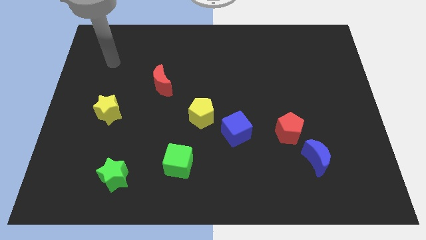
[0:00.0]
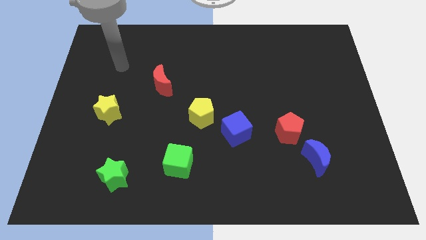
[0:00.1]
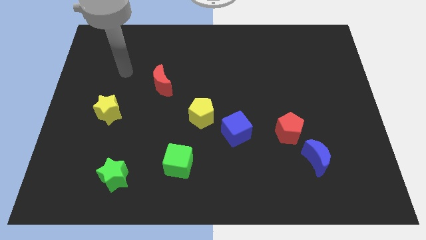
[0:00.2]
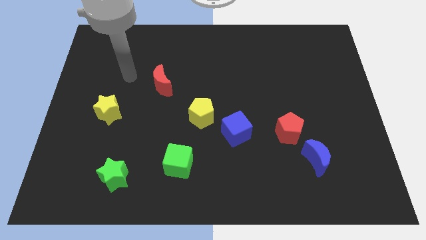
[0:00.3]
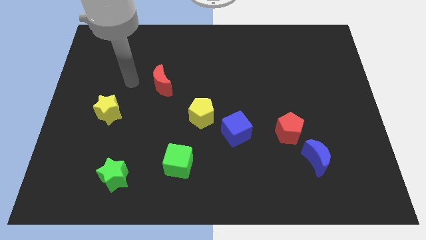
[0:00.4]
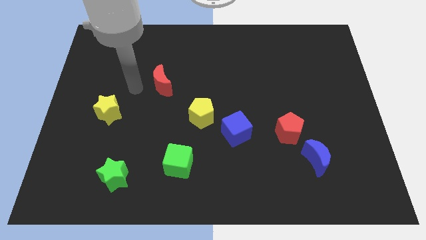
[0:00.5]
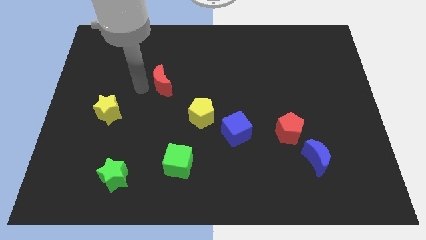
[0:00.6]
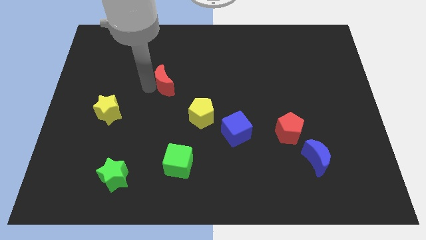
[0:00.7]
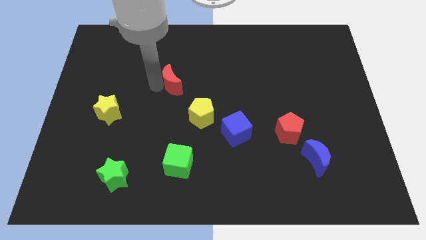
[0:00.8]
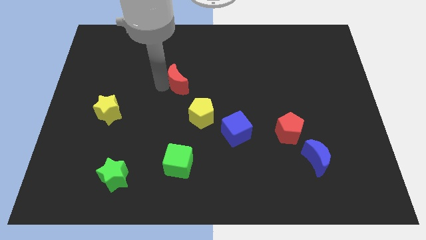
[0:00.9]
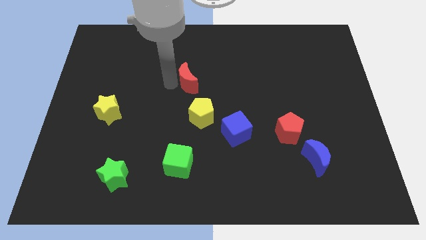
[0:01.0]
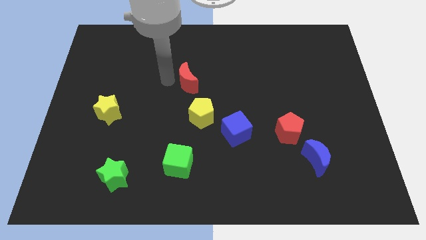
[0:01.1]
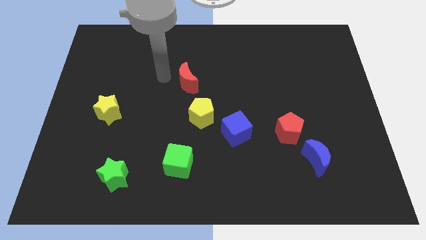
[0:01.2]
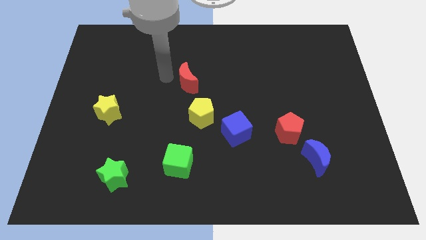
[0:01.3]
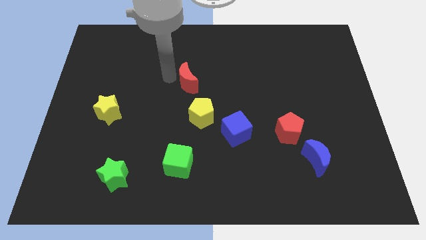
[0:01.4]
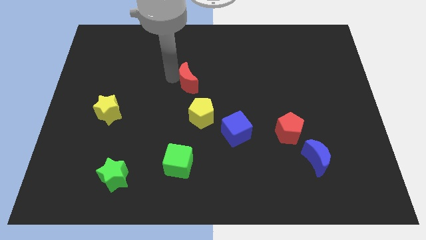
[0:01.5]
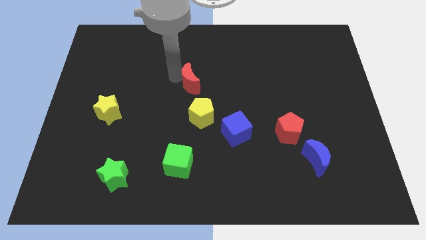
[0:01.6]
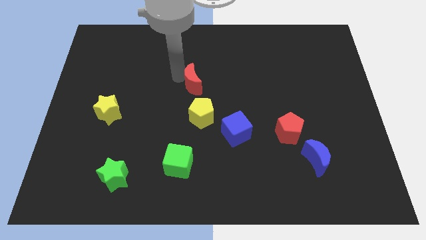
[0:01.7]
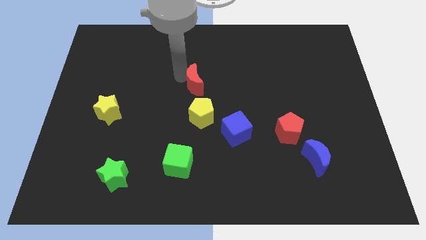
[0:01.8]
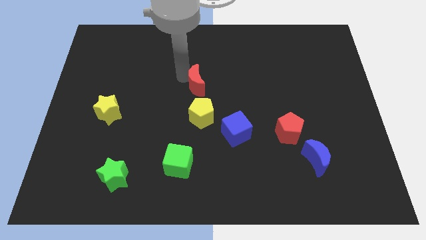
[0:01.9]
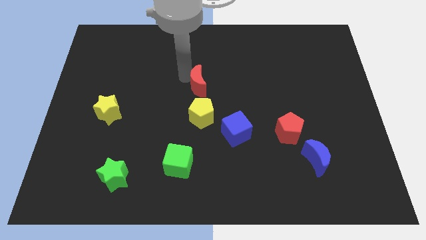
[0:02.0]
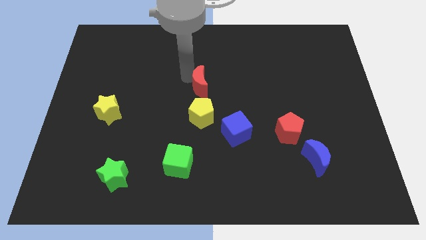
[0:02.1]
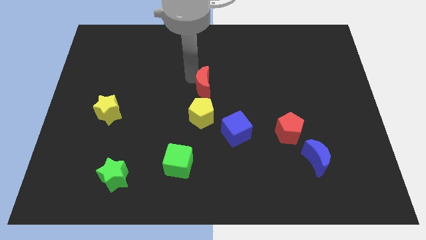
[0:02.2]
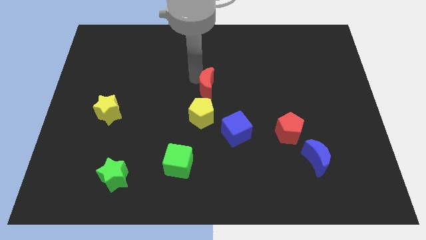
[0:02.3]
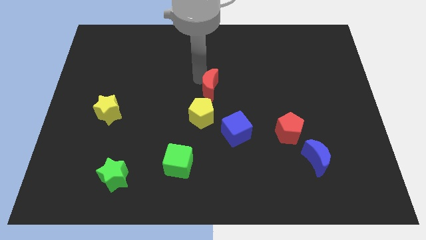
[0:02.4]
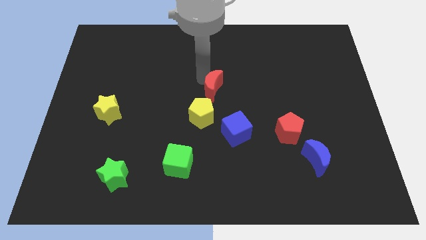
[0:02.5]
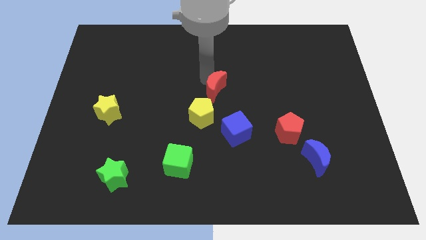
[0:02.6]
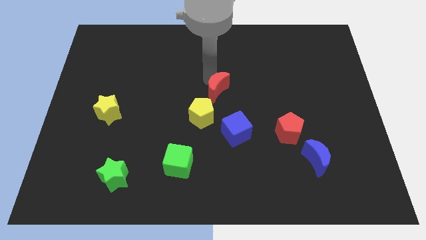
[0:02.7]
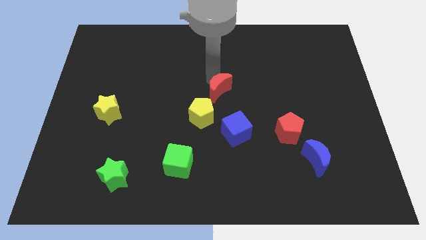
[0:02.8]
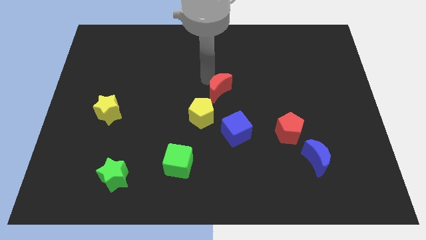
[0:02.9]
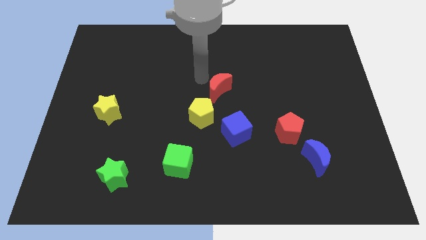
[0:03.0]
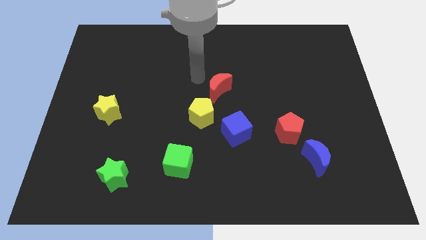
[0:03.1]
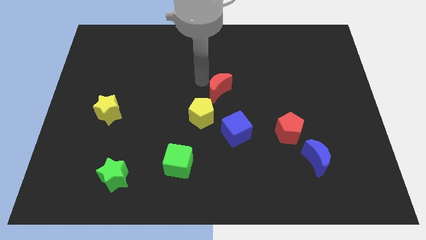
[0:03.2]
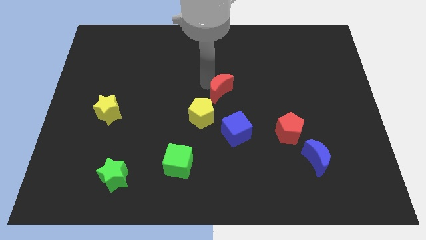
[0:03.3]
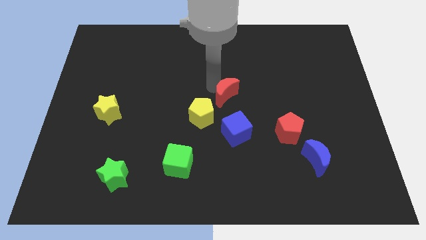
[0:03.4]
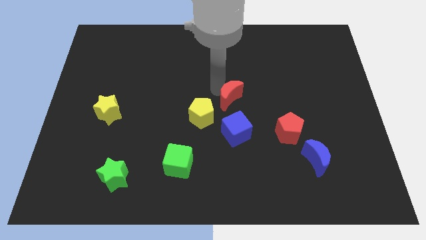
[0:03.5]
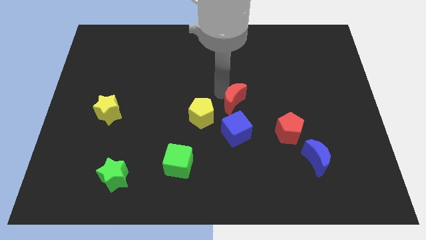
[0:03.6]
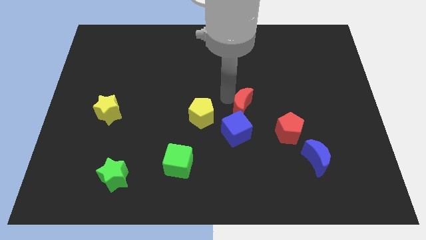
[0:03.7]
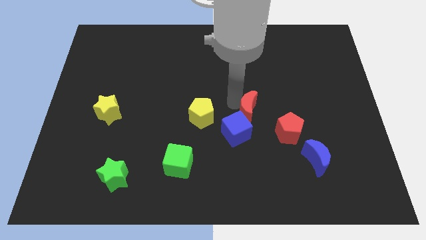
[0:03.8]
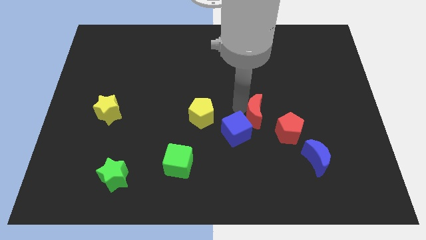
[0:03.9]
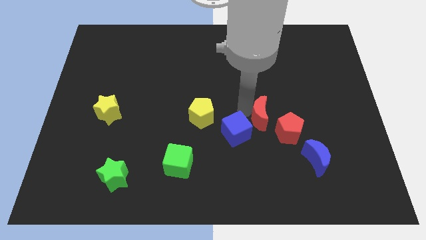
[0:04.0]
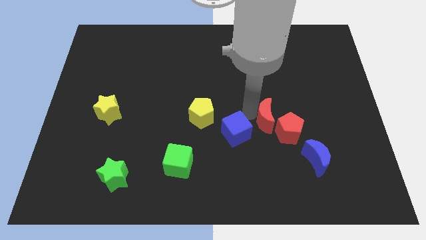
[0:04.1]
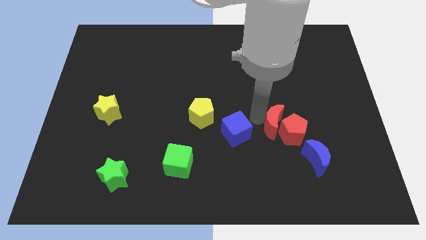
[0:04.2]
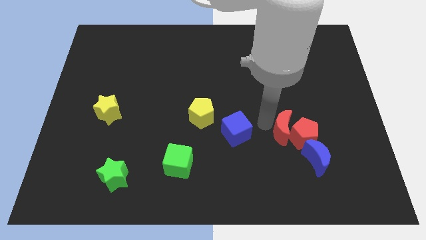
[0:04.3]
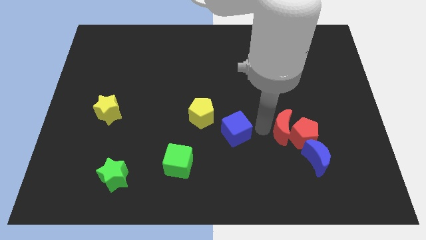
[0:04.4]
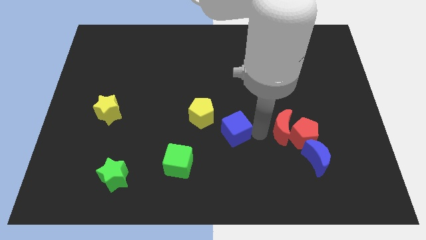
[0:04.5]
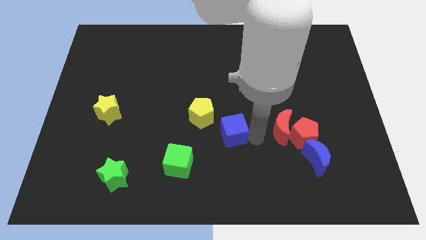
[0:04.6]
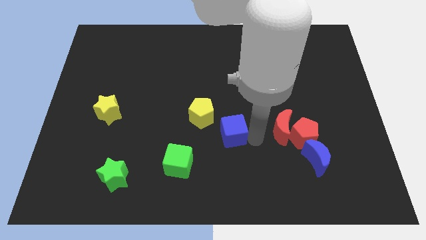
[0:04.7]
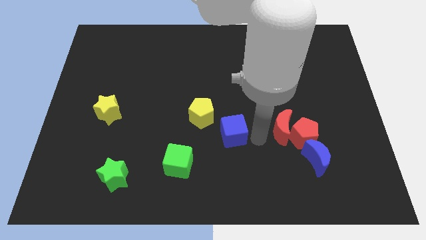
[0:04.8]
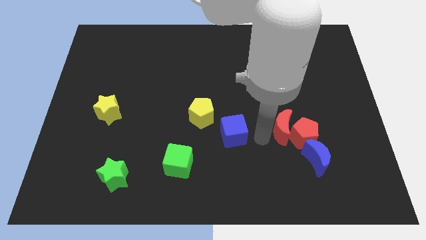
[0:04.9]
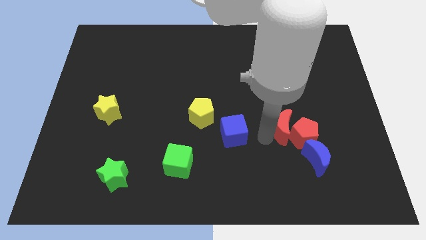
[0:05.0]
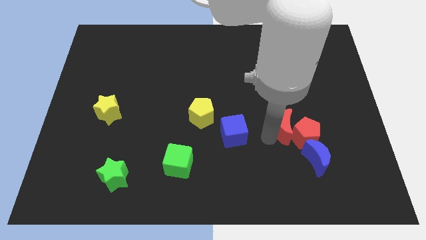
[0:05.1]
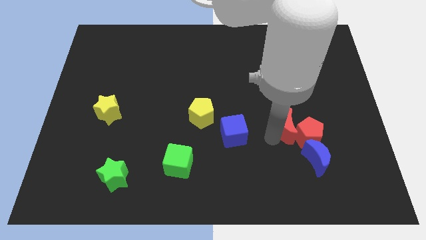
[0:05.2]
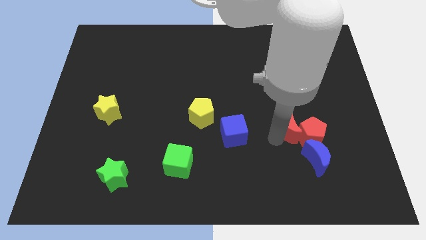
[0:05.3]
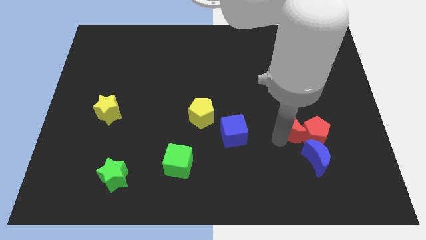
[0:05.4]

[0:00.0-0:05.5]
put the red moon above the blue moon

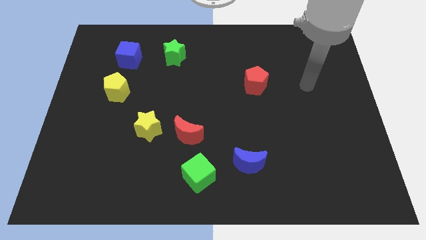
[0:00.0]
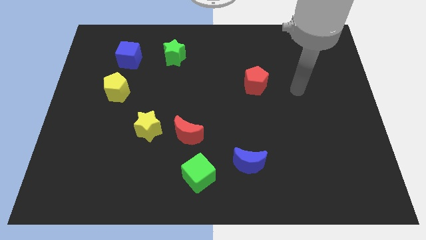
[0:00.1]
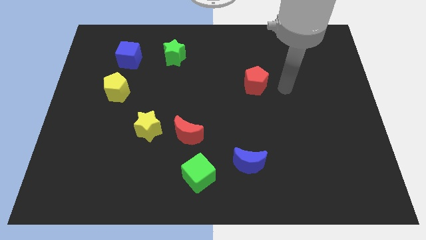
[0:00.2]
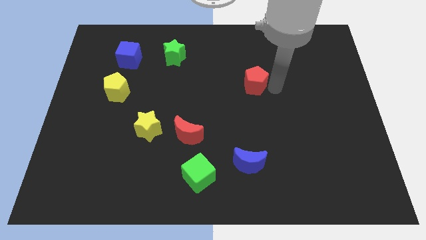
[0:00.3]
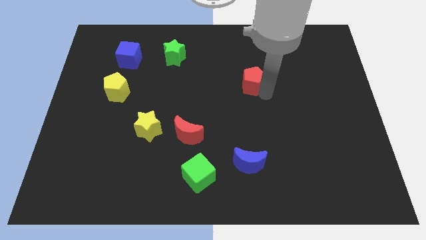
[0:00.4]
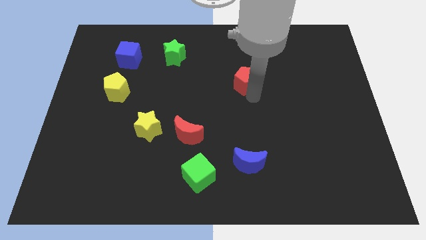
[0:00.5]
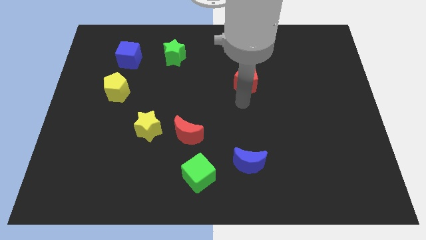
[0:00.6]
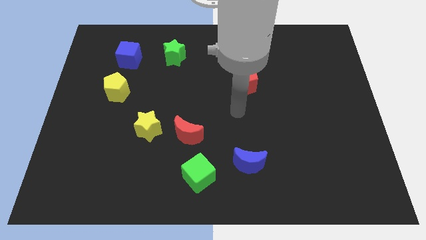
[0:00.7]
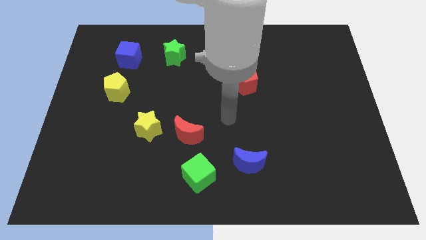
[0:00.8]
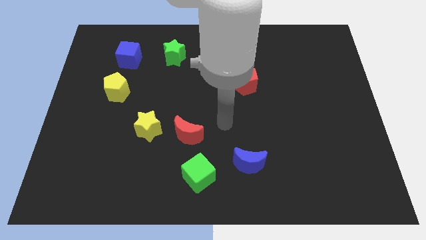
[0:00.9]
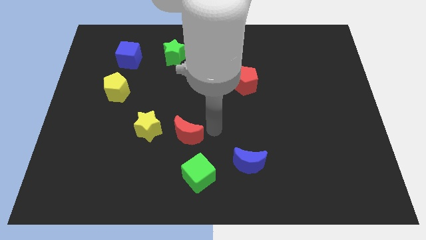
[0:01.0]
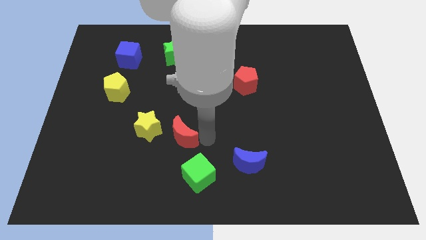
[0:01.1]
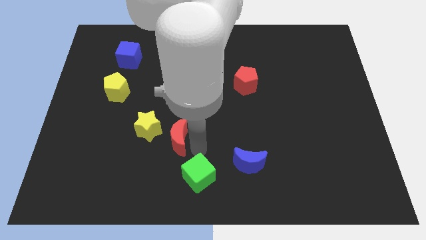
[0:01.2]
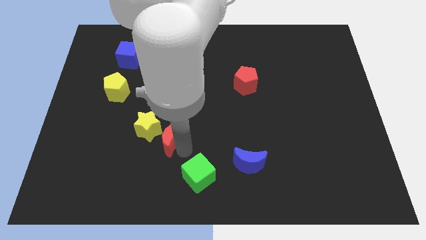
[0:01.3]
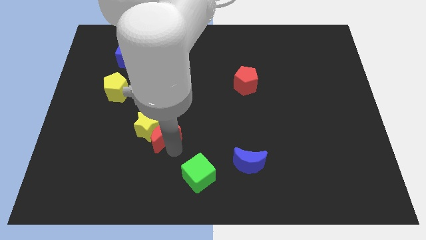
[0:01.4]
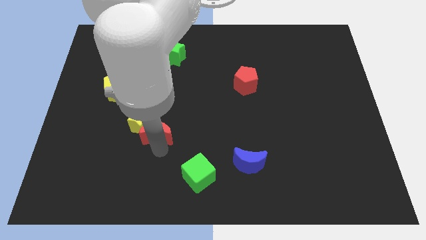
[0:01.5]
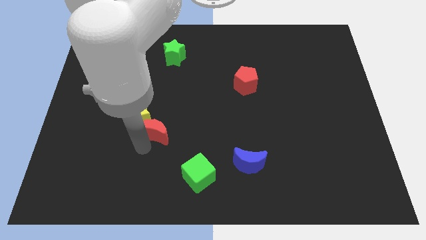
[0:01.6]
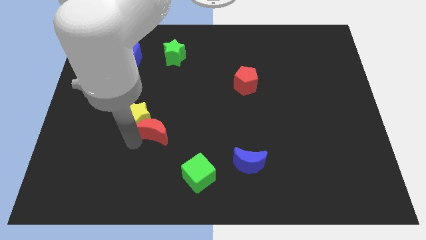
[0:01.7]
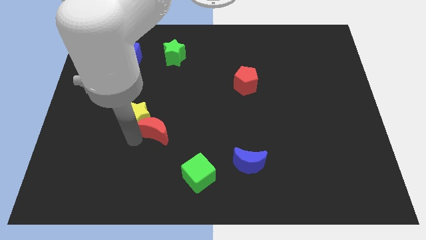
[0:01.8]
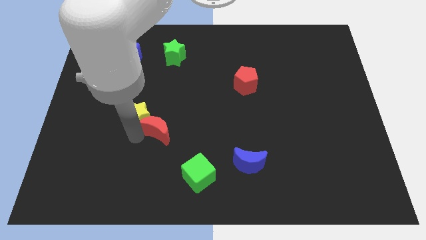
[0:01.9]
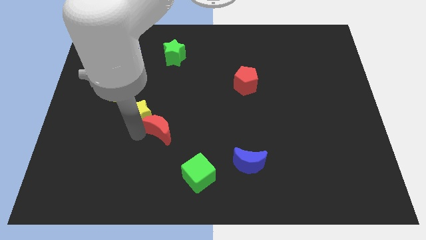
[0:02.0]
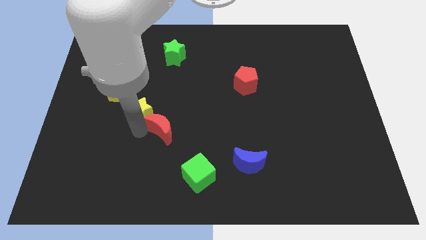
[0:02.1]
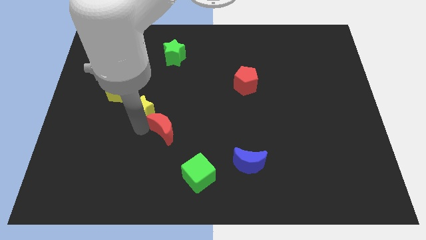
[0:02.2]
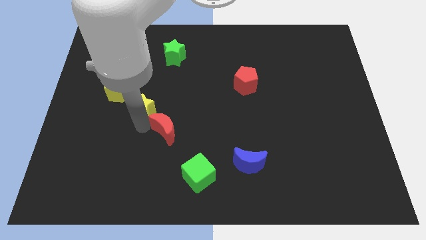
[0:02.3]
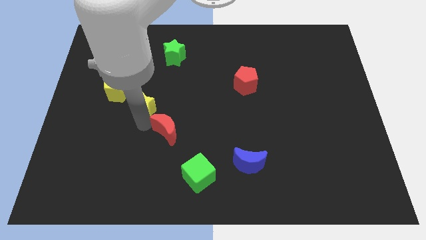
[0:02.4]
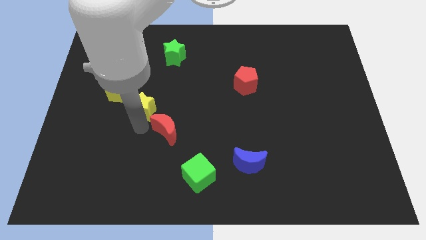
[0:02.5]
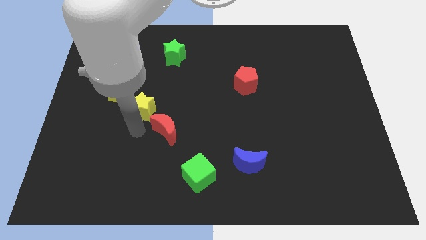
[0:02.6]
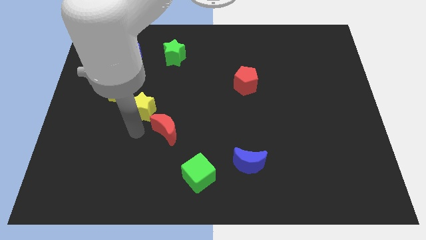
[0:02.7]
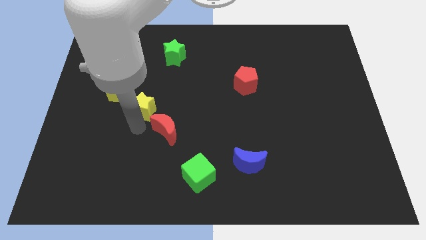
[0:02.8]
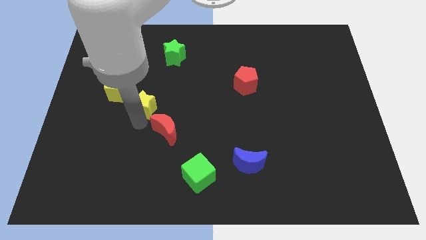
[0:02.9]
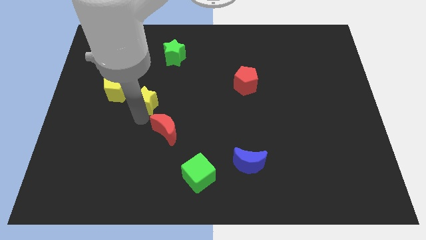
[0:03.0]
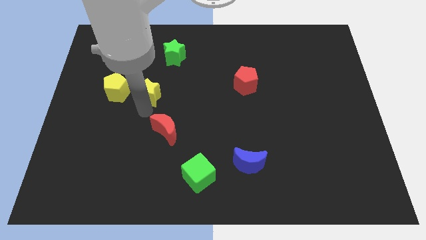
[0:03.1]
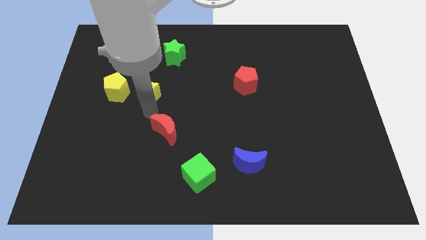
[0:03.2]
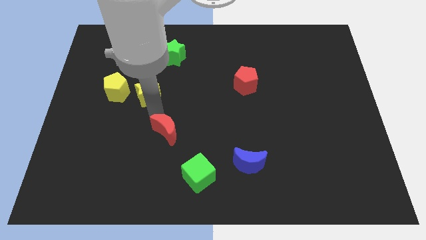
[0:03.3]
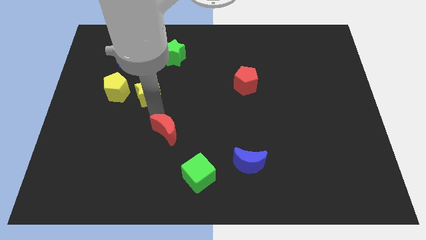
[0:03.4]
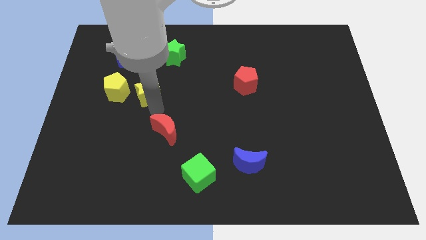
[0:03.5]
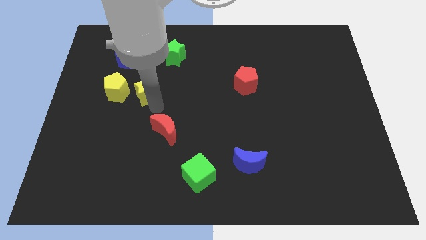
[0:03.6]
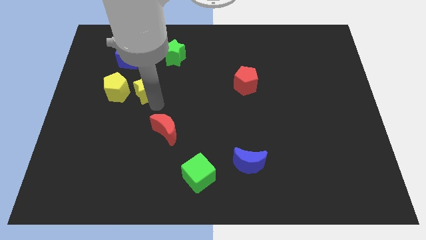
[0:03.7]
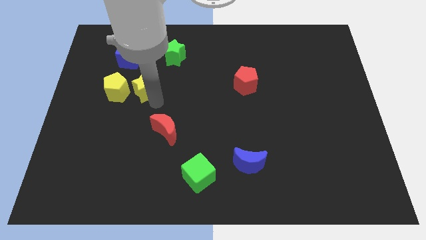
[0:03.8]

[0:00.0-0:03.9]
put the yellow star to the top right side of the yellow pentagon
